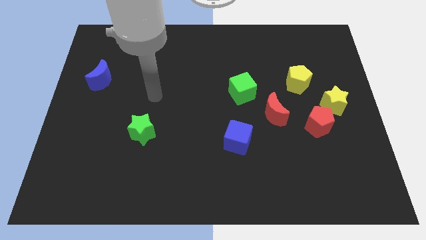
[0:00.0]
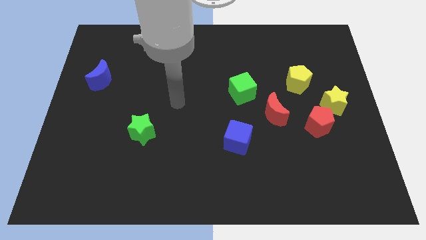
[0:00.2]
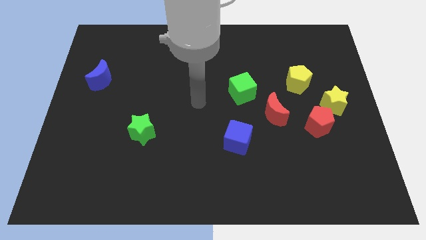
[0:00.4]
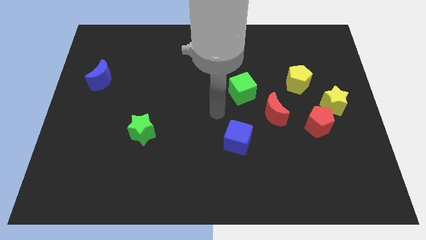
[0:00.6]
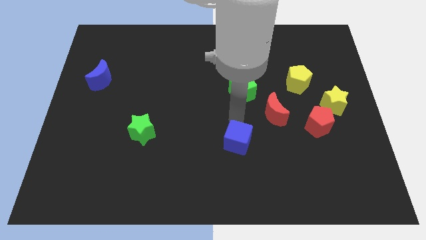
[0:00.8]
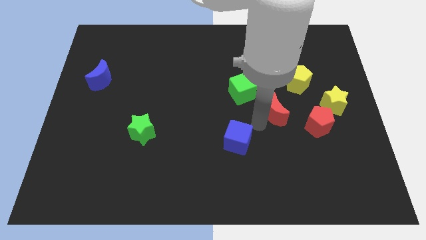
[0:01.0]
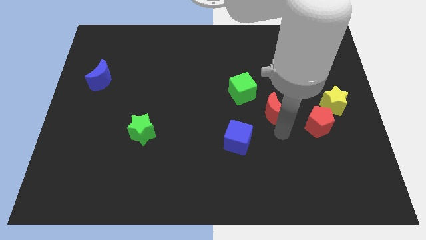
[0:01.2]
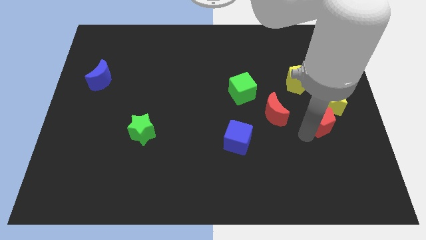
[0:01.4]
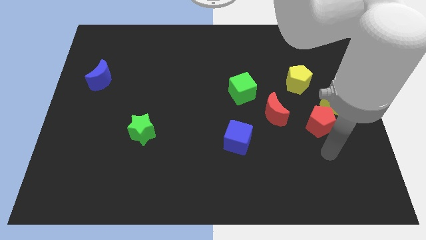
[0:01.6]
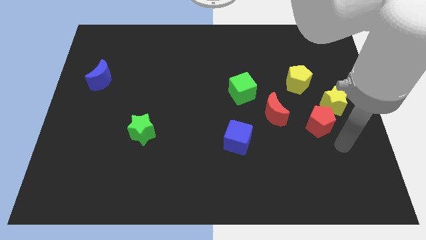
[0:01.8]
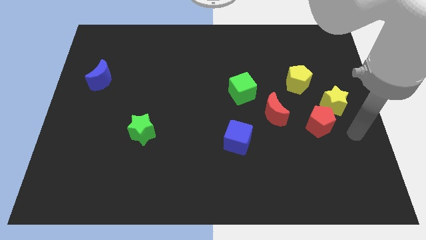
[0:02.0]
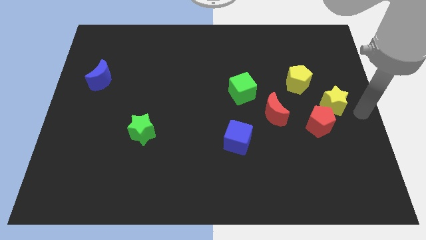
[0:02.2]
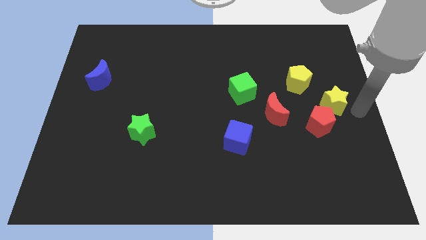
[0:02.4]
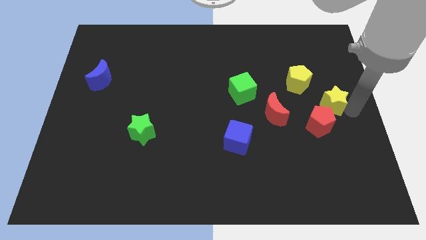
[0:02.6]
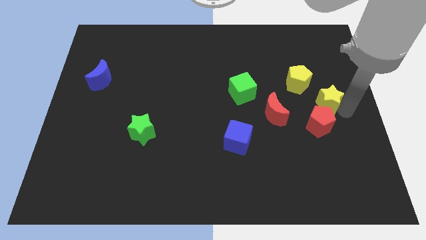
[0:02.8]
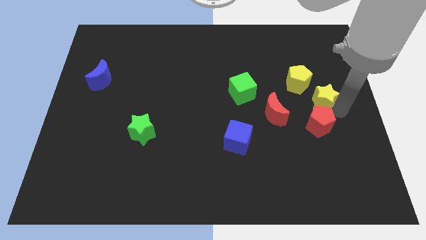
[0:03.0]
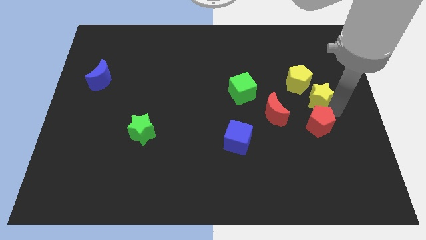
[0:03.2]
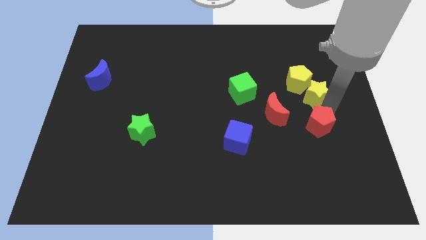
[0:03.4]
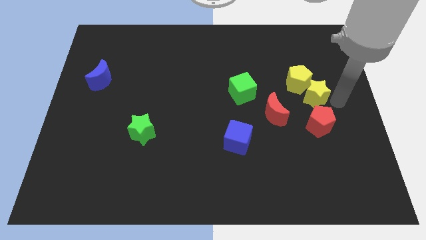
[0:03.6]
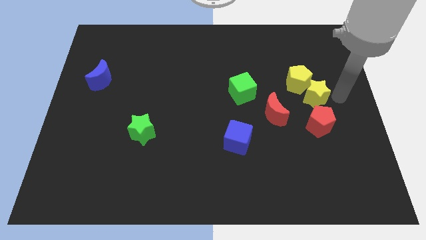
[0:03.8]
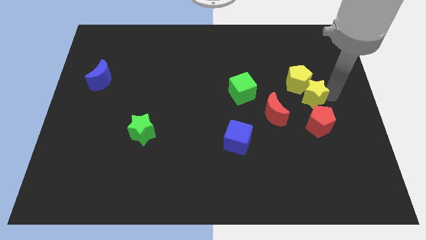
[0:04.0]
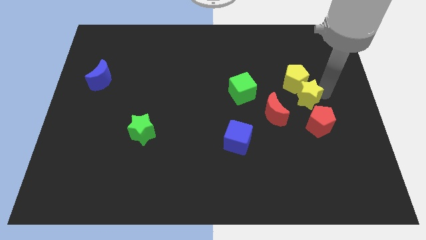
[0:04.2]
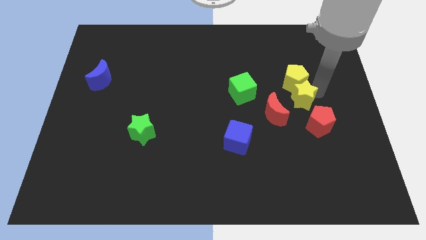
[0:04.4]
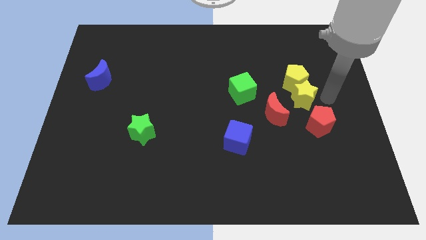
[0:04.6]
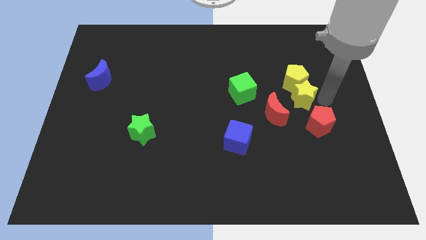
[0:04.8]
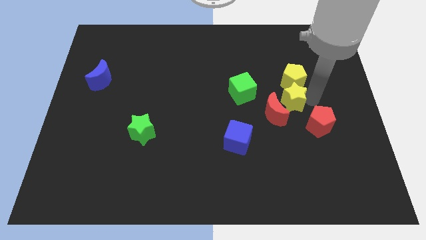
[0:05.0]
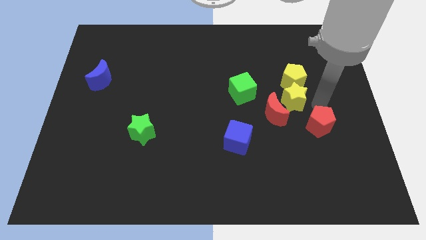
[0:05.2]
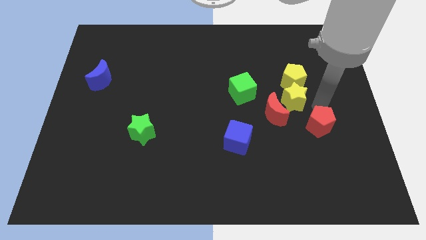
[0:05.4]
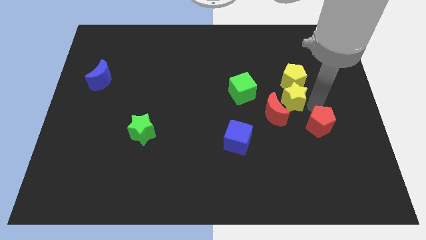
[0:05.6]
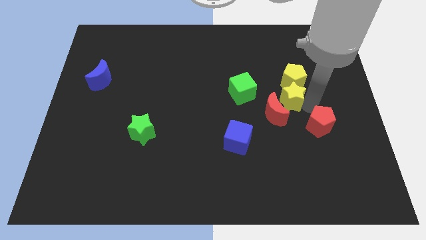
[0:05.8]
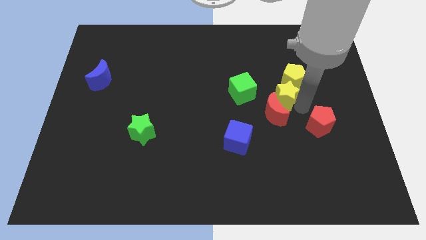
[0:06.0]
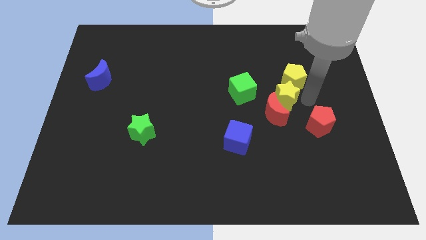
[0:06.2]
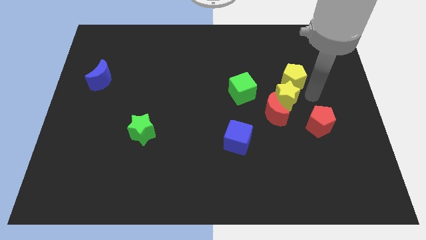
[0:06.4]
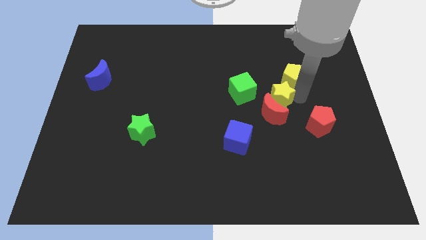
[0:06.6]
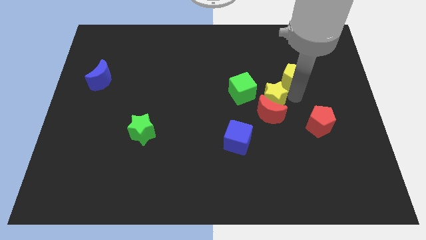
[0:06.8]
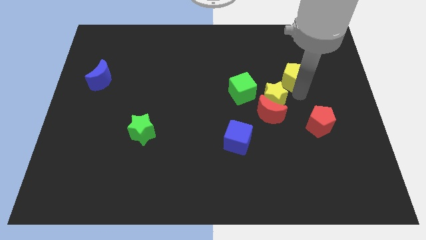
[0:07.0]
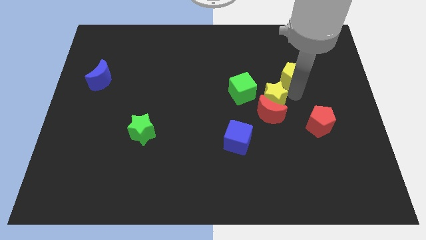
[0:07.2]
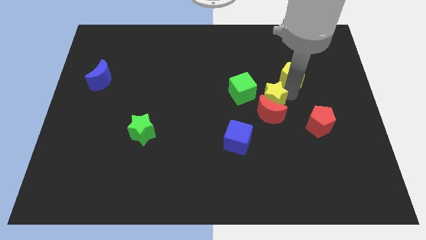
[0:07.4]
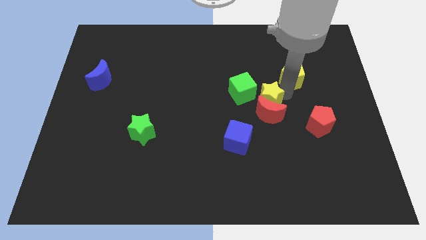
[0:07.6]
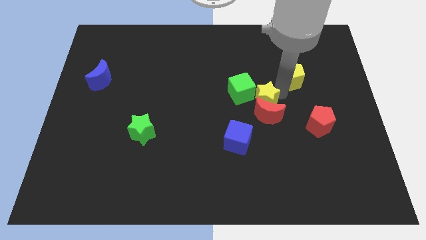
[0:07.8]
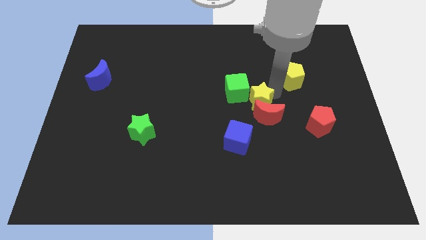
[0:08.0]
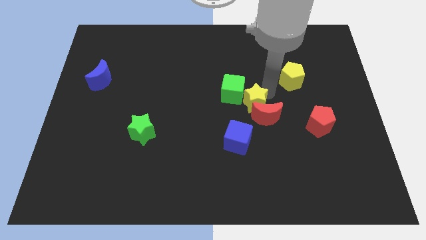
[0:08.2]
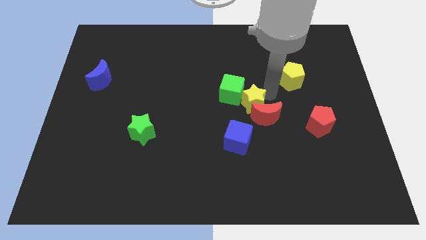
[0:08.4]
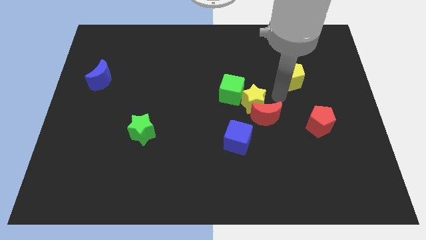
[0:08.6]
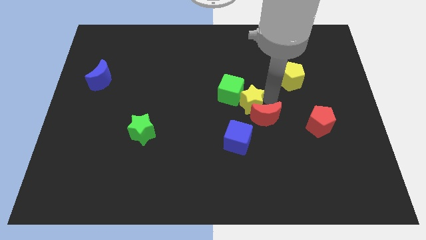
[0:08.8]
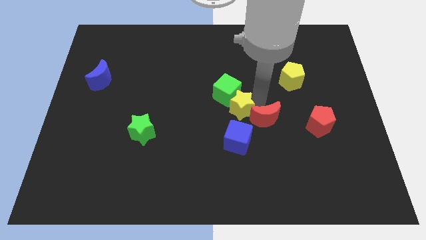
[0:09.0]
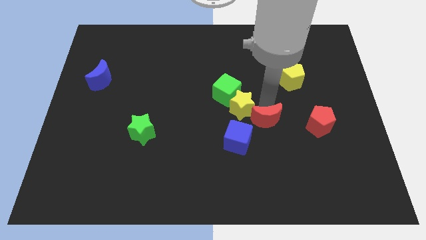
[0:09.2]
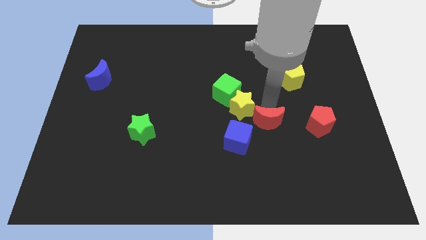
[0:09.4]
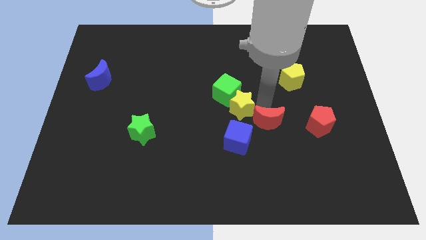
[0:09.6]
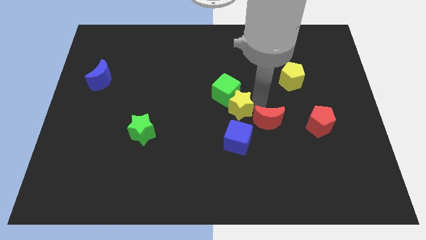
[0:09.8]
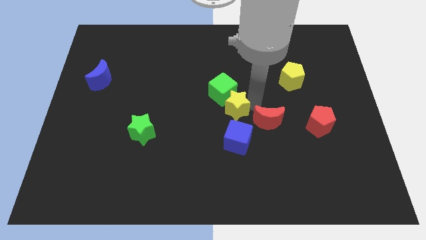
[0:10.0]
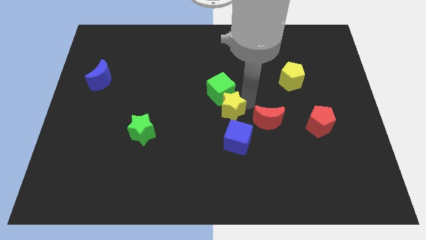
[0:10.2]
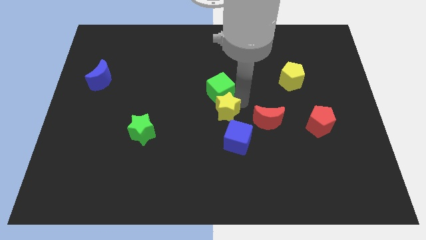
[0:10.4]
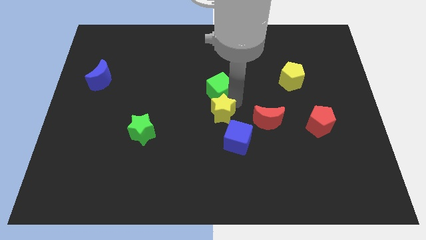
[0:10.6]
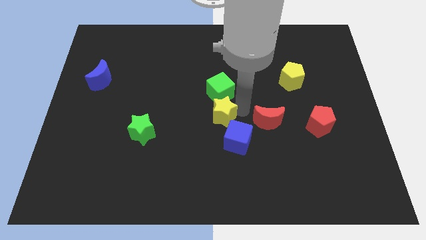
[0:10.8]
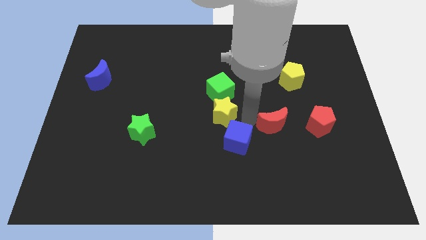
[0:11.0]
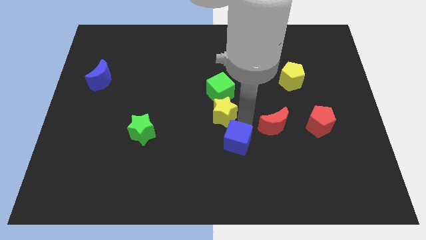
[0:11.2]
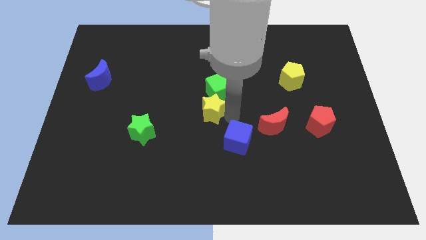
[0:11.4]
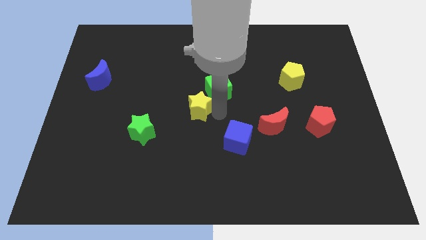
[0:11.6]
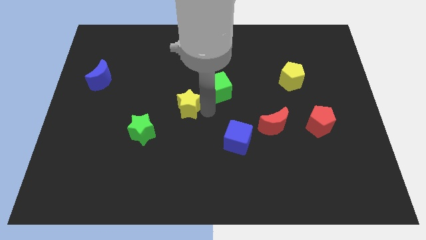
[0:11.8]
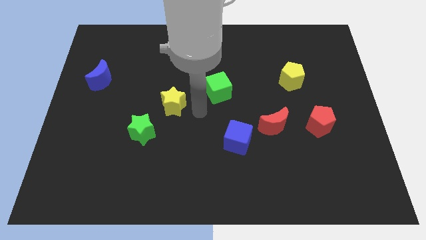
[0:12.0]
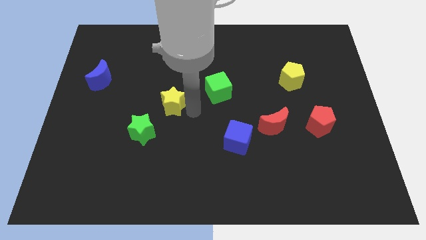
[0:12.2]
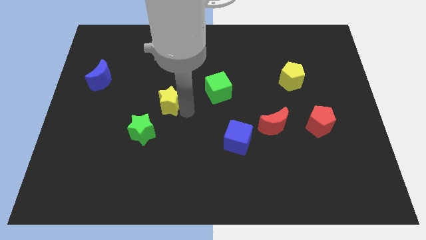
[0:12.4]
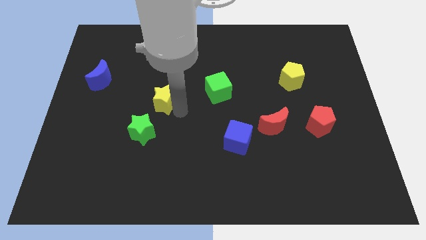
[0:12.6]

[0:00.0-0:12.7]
move the yellow star to the top of the green star
